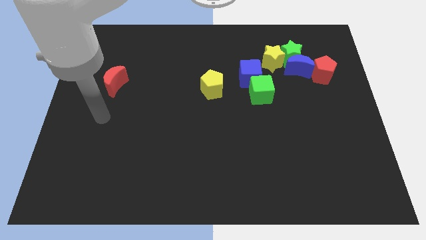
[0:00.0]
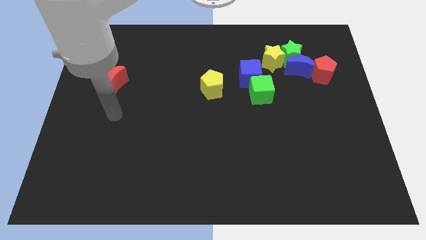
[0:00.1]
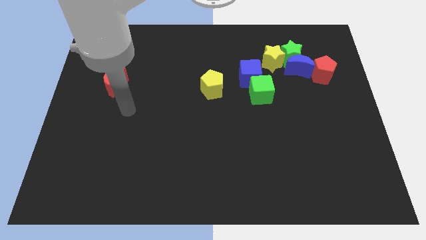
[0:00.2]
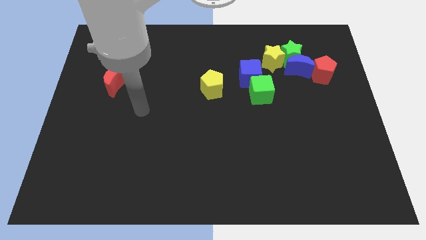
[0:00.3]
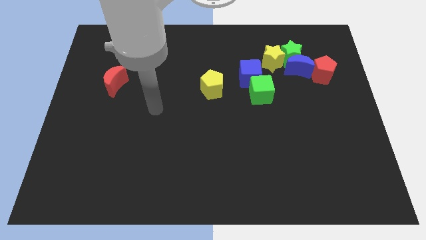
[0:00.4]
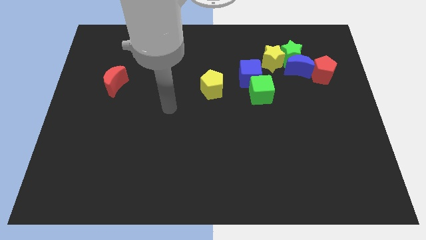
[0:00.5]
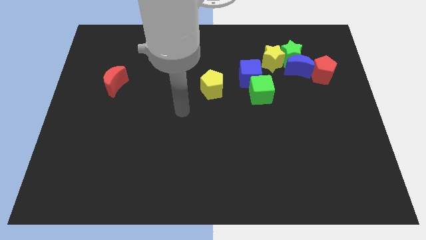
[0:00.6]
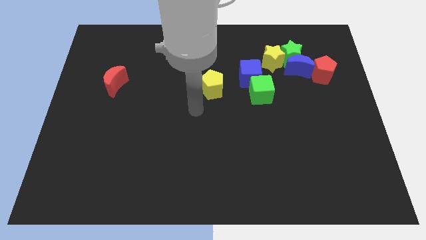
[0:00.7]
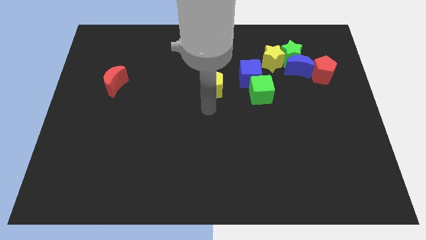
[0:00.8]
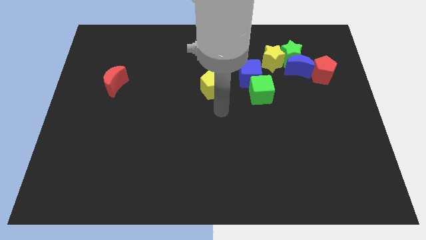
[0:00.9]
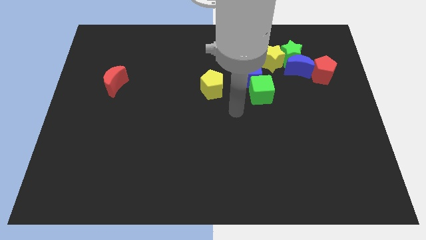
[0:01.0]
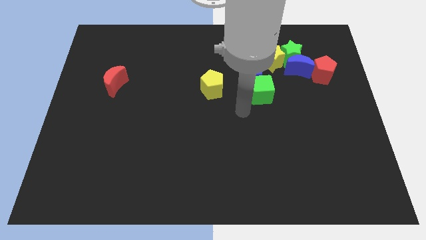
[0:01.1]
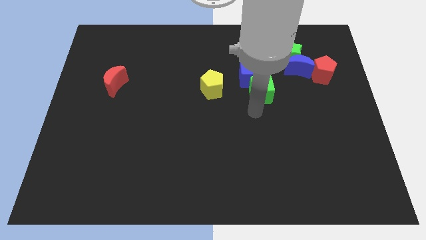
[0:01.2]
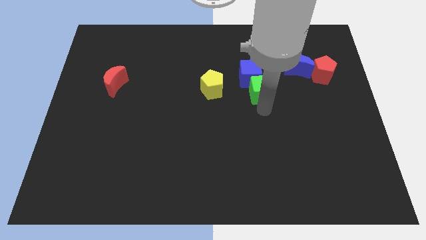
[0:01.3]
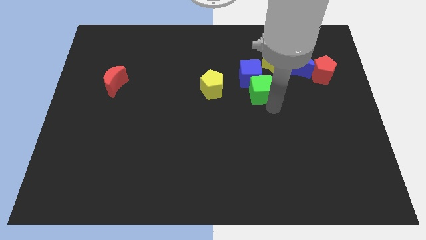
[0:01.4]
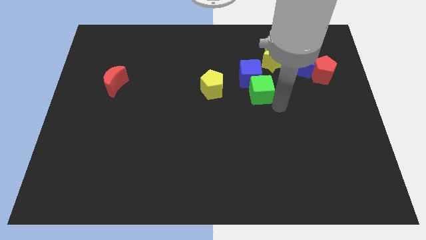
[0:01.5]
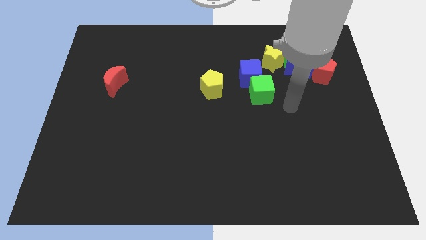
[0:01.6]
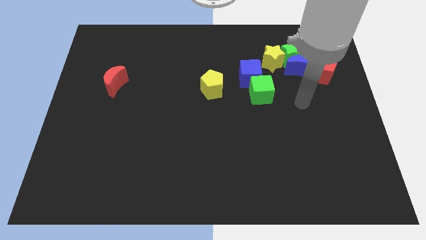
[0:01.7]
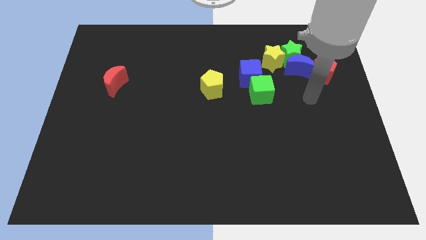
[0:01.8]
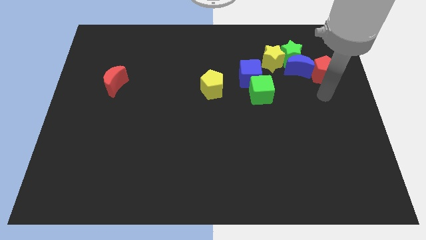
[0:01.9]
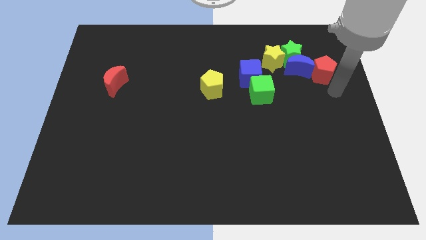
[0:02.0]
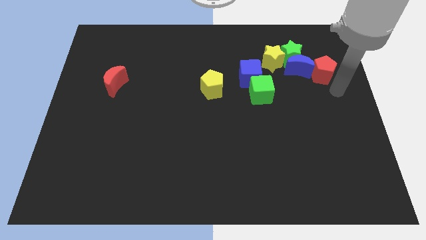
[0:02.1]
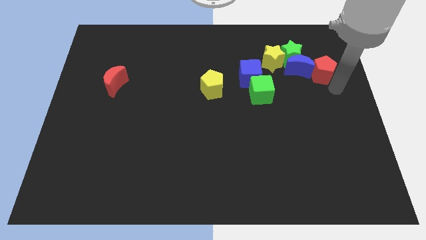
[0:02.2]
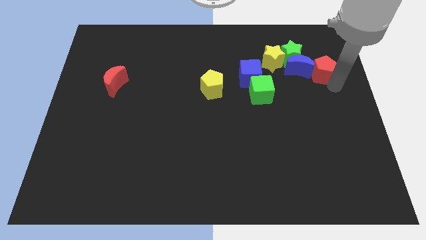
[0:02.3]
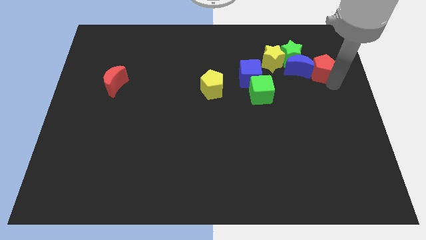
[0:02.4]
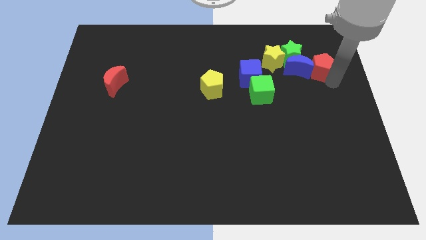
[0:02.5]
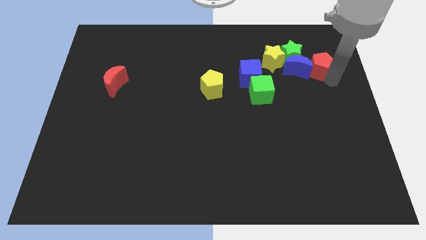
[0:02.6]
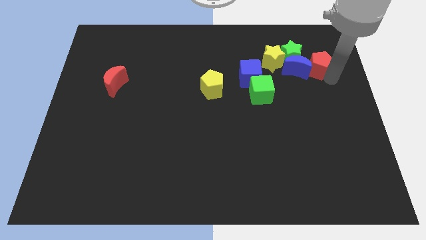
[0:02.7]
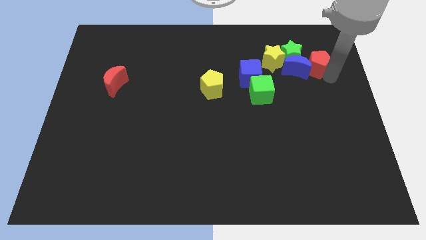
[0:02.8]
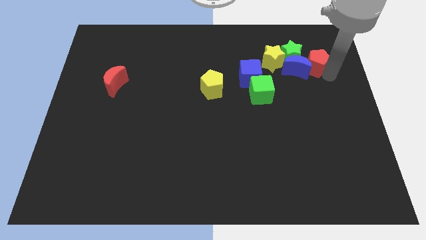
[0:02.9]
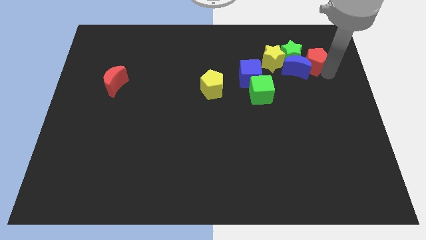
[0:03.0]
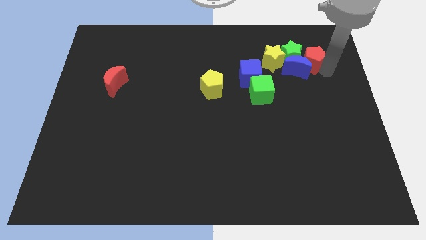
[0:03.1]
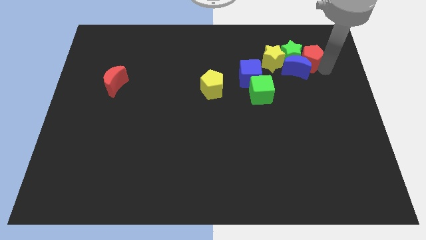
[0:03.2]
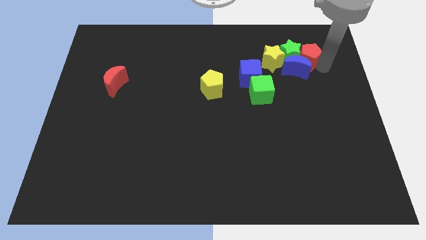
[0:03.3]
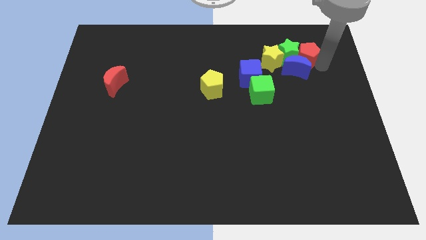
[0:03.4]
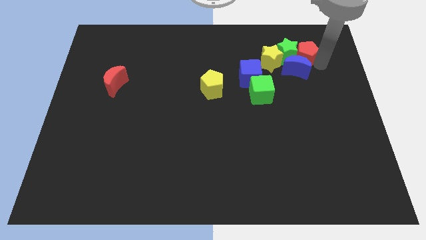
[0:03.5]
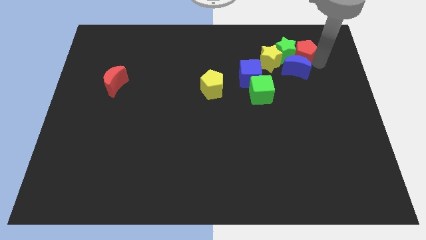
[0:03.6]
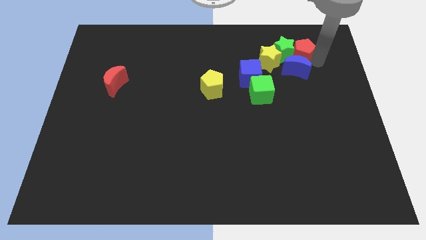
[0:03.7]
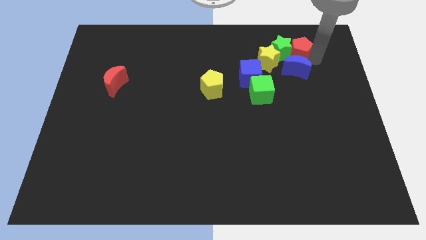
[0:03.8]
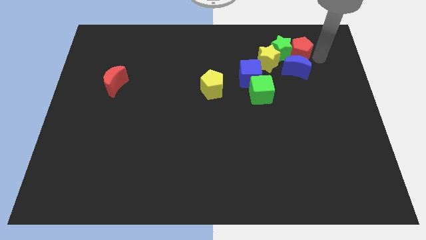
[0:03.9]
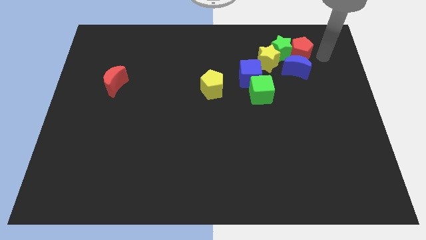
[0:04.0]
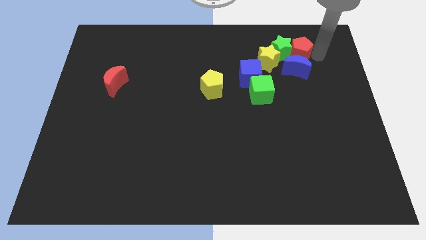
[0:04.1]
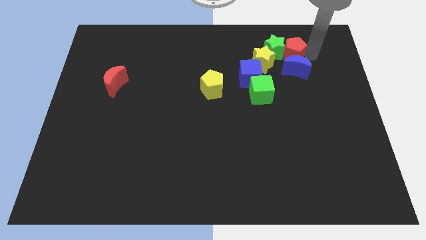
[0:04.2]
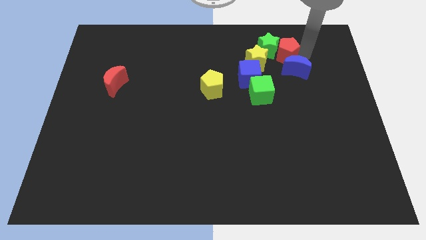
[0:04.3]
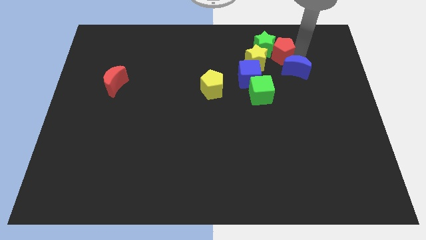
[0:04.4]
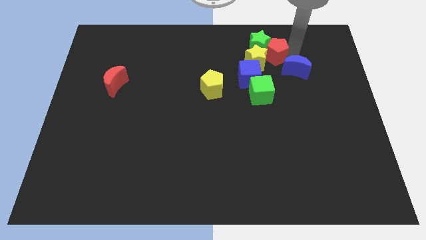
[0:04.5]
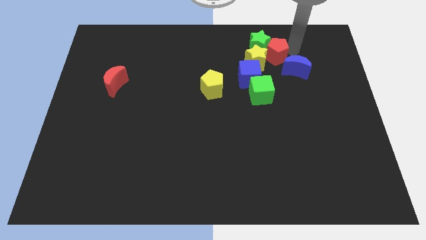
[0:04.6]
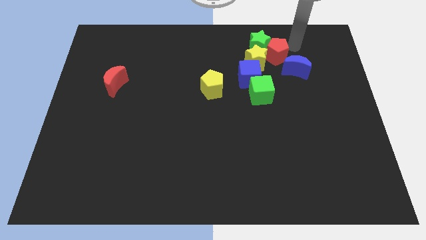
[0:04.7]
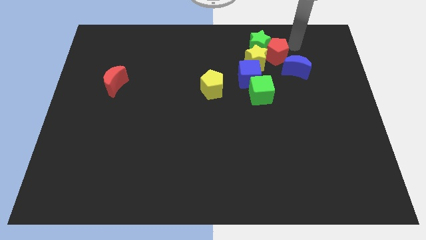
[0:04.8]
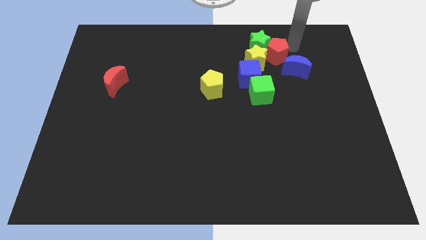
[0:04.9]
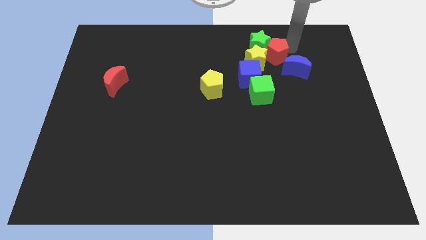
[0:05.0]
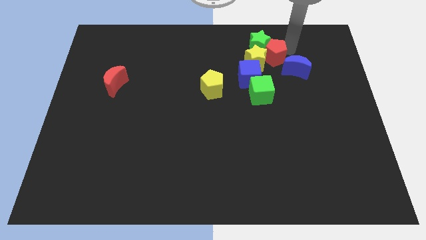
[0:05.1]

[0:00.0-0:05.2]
slide the red pentagon above the green cube

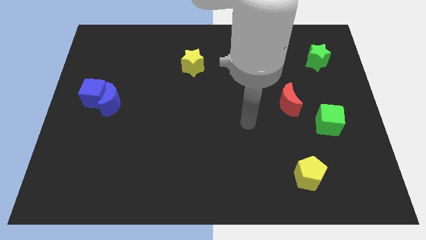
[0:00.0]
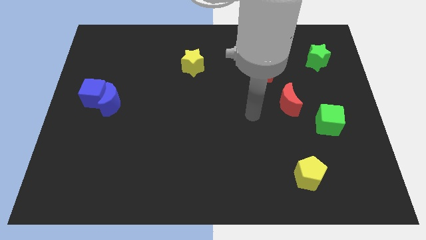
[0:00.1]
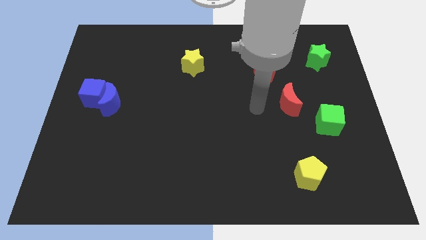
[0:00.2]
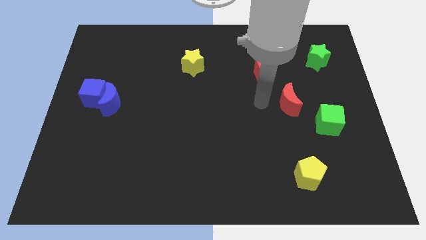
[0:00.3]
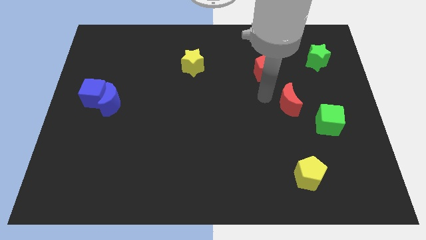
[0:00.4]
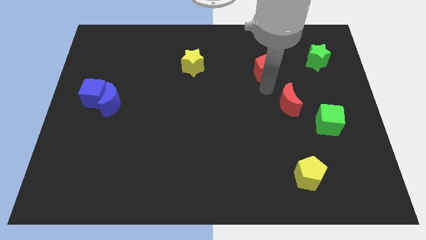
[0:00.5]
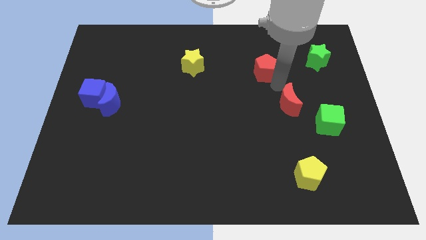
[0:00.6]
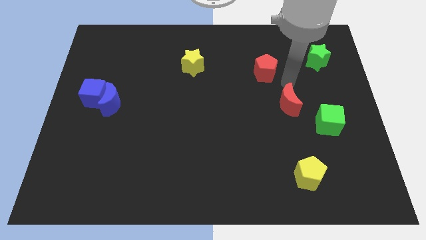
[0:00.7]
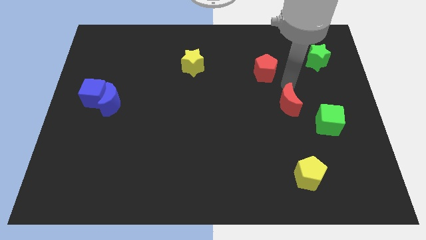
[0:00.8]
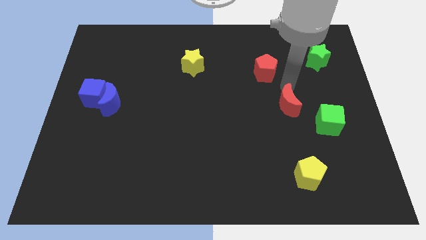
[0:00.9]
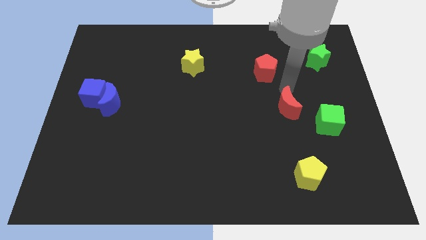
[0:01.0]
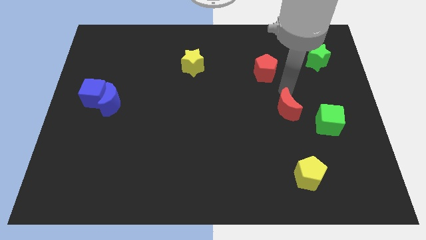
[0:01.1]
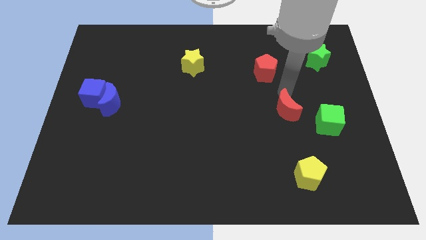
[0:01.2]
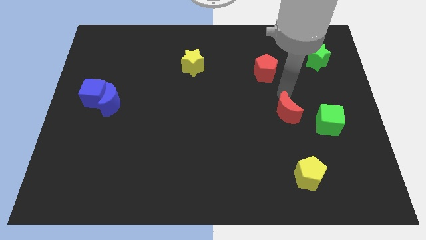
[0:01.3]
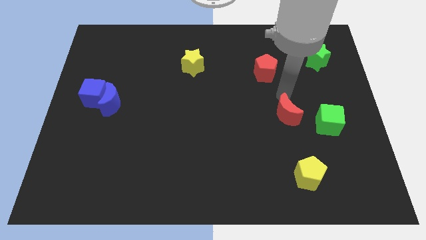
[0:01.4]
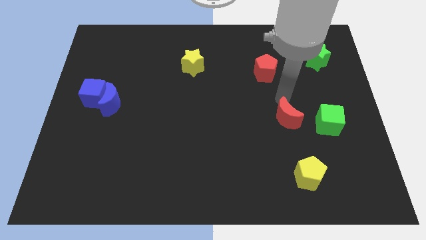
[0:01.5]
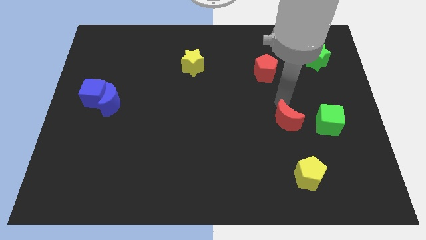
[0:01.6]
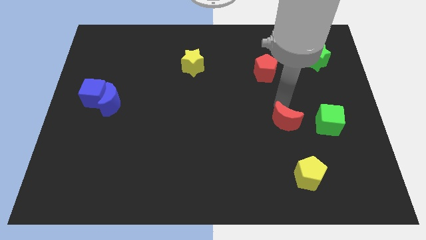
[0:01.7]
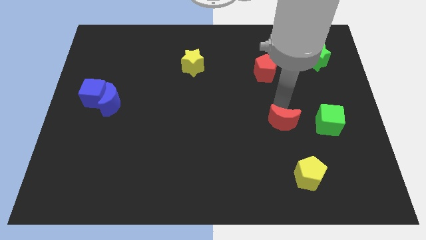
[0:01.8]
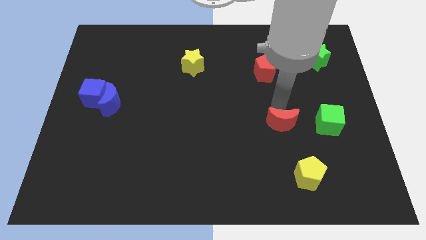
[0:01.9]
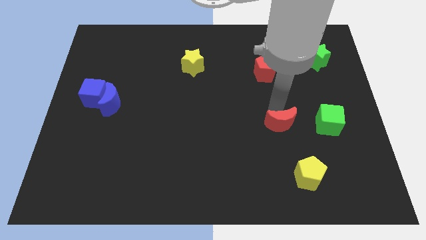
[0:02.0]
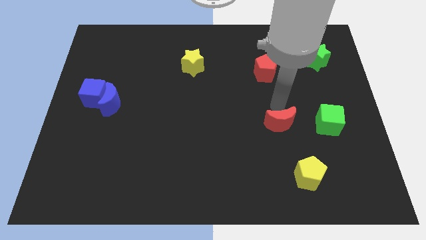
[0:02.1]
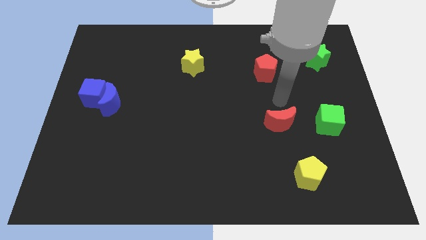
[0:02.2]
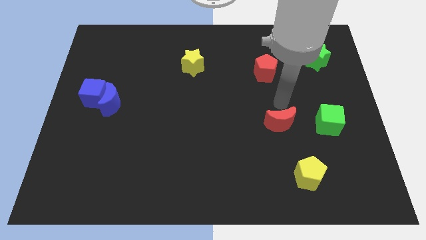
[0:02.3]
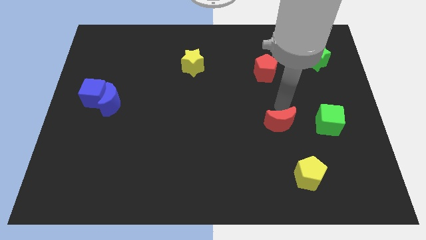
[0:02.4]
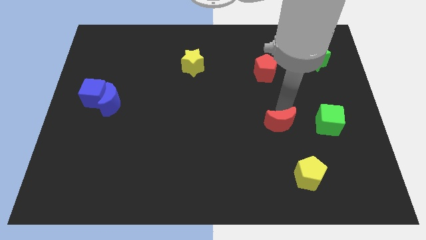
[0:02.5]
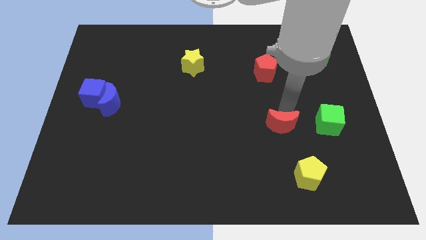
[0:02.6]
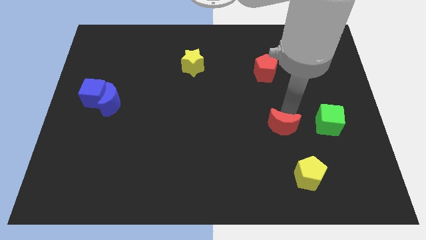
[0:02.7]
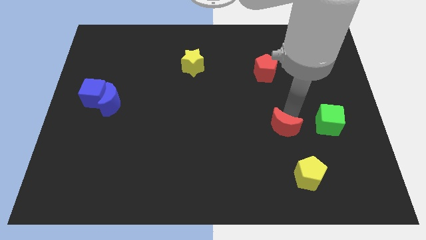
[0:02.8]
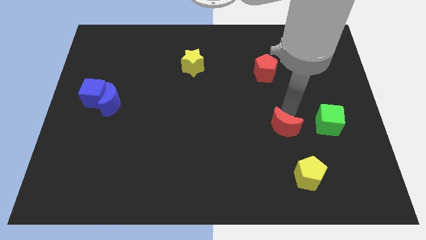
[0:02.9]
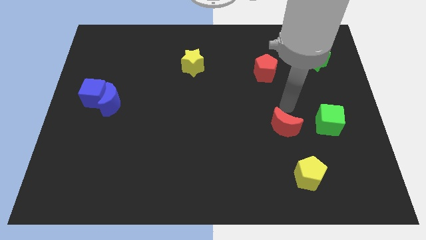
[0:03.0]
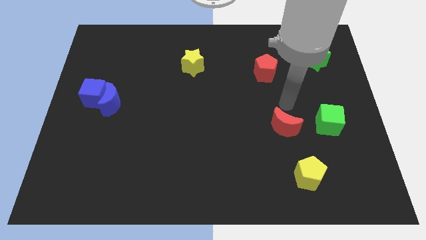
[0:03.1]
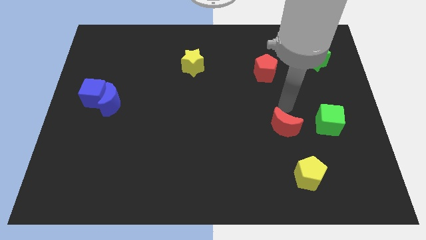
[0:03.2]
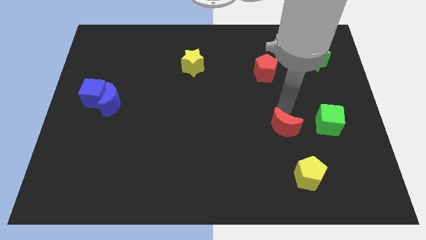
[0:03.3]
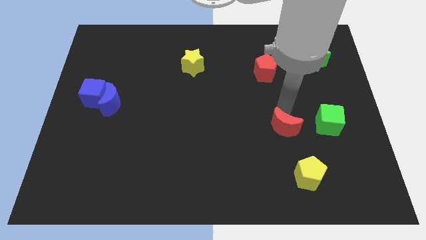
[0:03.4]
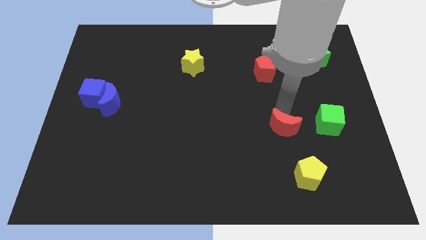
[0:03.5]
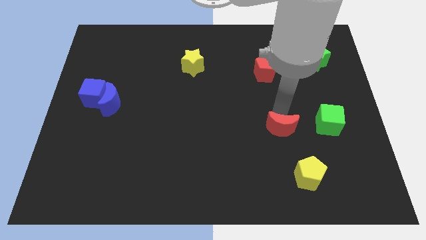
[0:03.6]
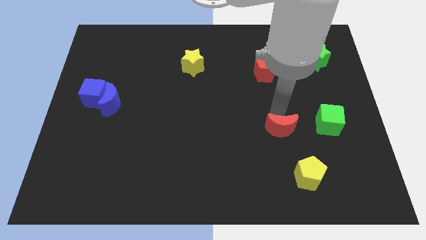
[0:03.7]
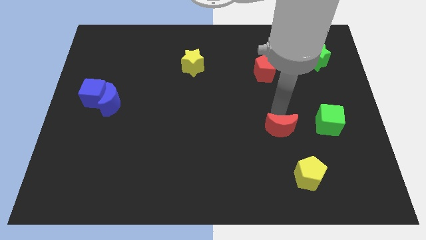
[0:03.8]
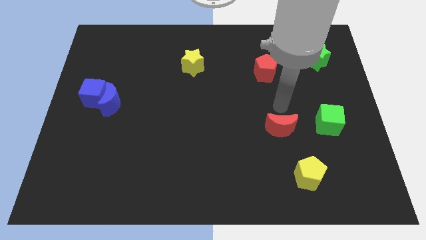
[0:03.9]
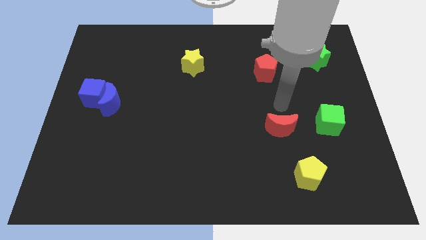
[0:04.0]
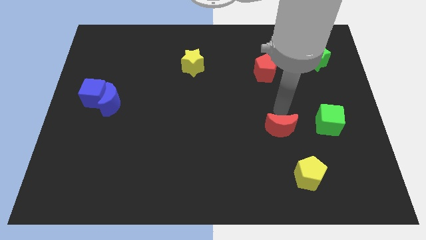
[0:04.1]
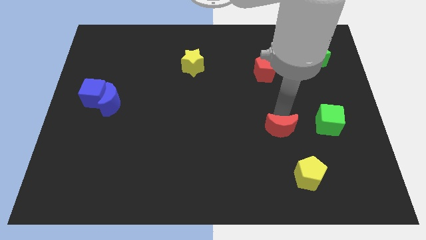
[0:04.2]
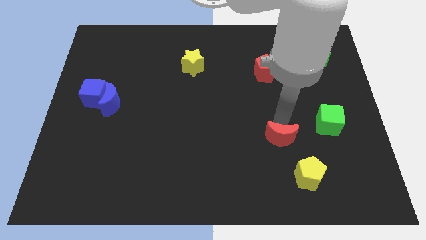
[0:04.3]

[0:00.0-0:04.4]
move the red moon to the top left of the yellow pentagon
